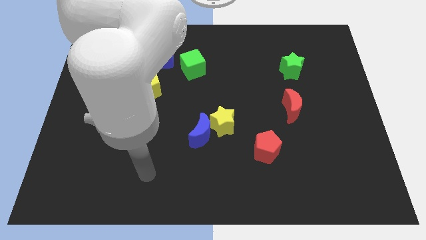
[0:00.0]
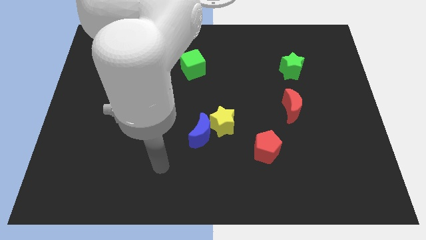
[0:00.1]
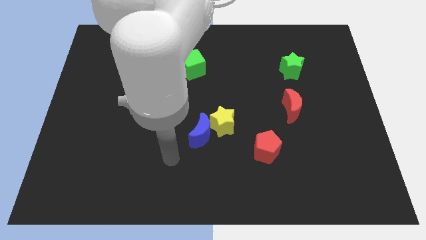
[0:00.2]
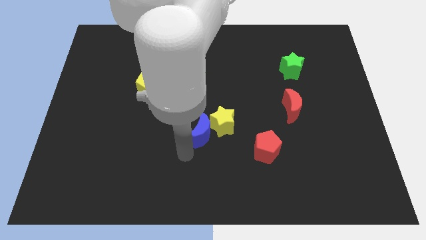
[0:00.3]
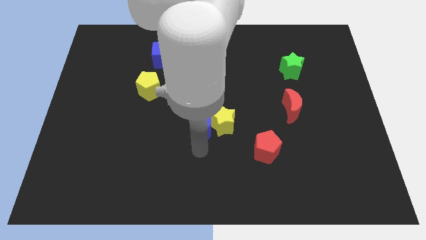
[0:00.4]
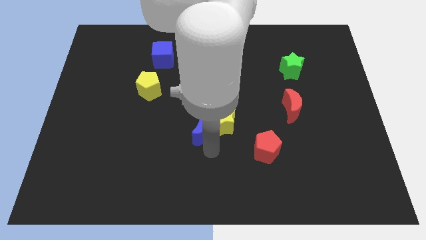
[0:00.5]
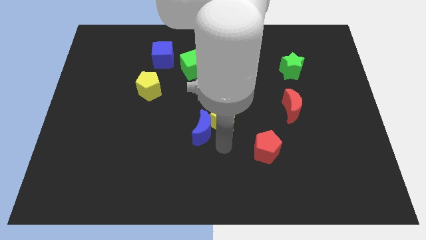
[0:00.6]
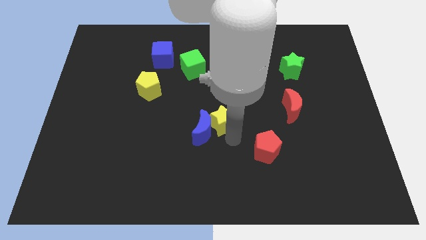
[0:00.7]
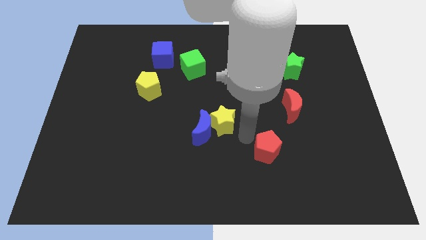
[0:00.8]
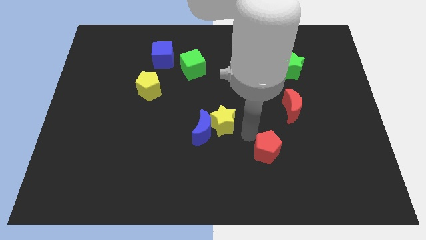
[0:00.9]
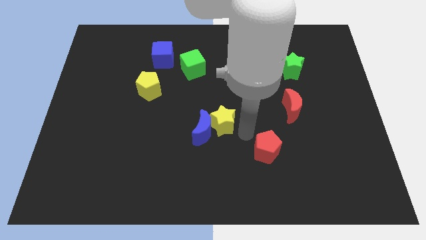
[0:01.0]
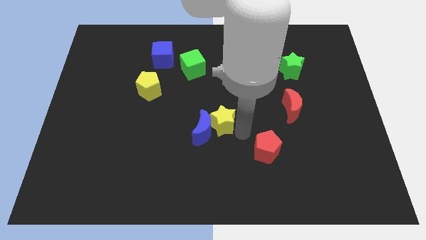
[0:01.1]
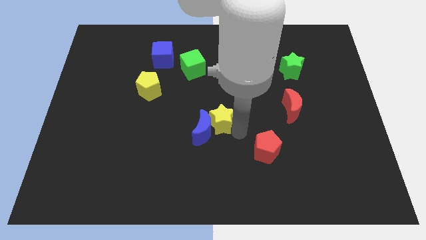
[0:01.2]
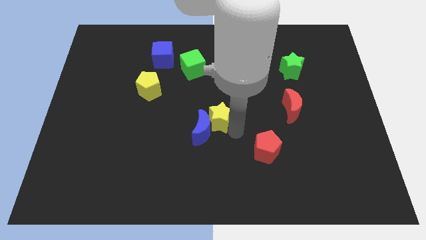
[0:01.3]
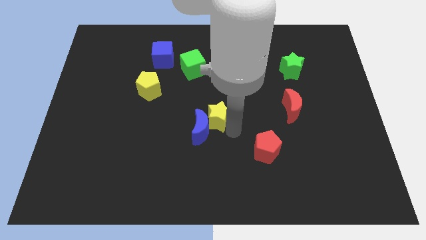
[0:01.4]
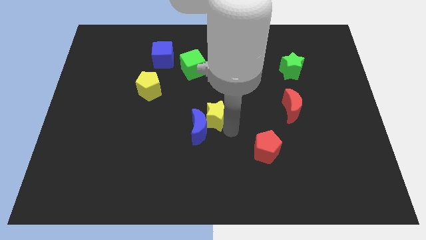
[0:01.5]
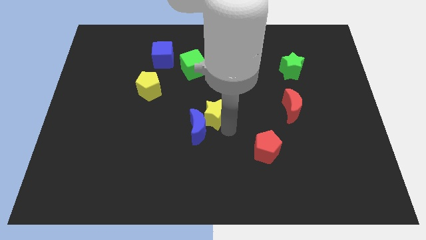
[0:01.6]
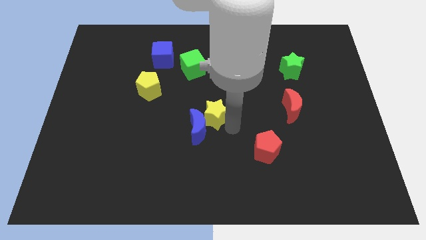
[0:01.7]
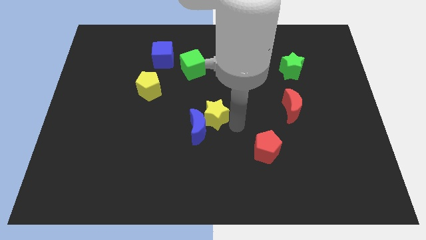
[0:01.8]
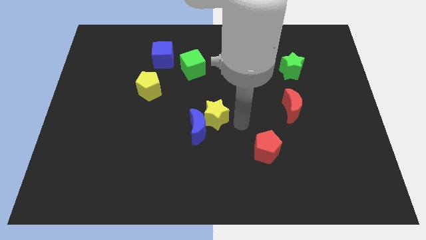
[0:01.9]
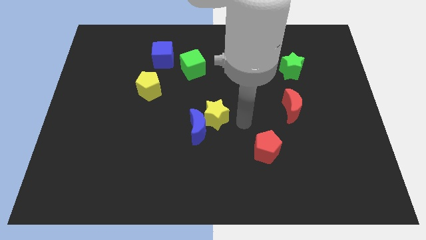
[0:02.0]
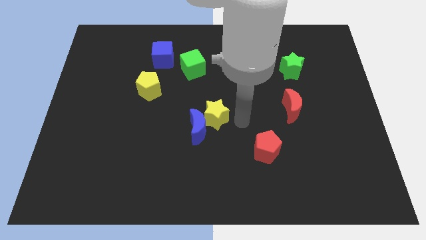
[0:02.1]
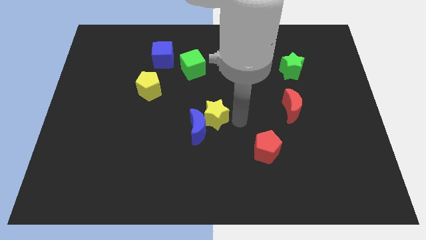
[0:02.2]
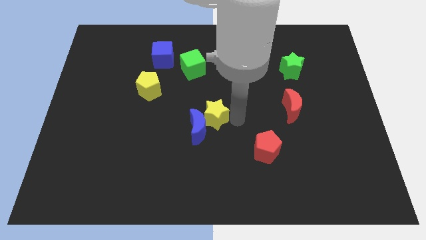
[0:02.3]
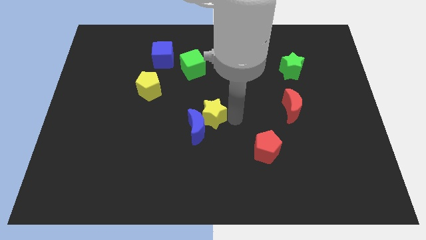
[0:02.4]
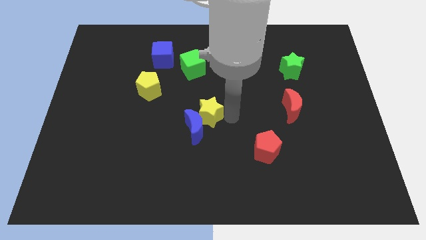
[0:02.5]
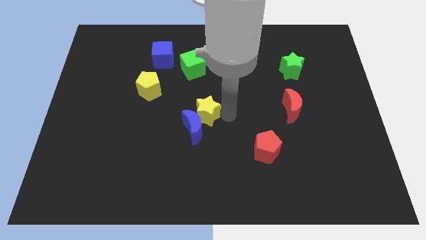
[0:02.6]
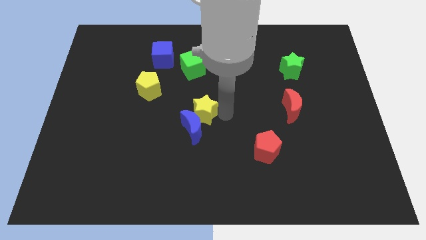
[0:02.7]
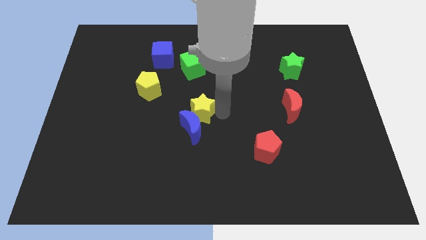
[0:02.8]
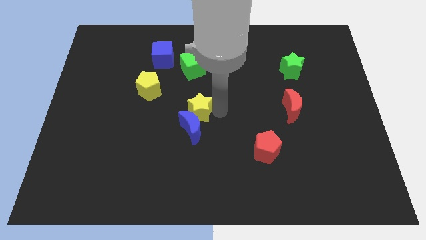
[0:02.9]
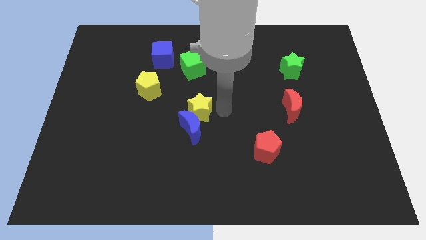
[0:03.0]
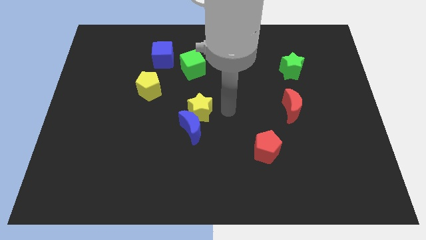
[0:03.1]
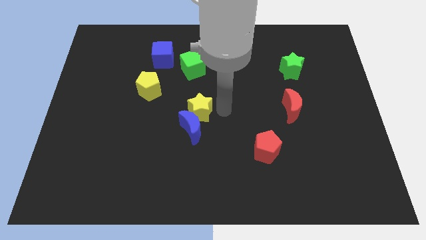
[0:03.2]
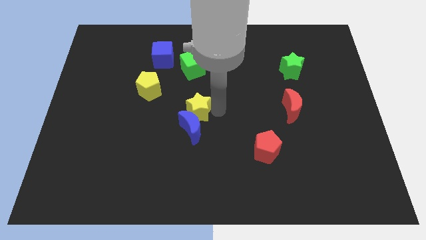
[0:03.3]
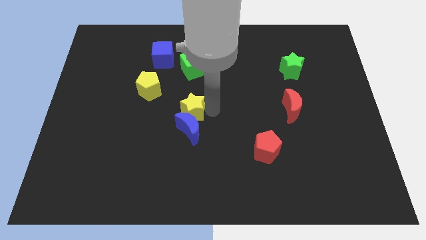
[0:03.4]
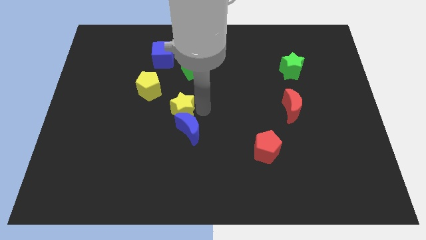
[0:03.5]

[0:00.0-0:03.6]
move the yellow star to the left a bit

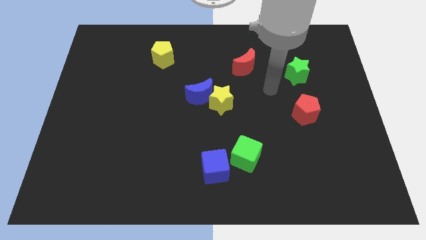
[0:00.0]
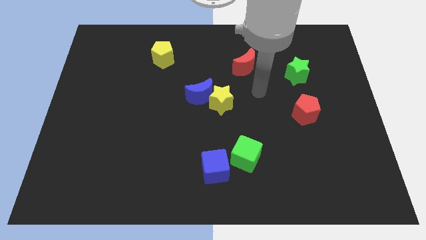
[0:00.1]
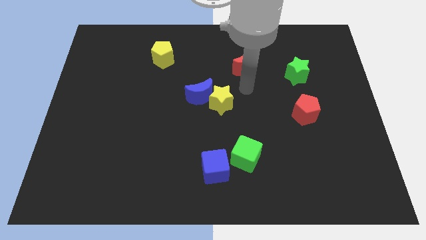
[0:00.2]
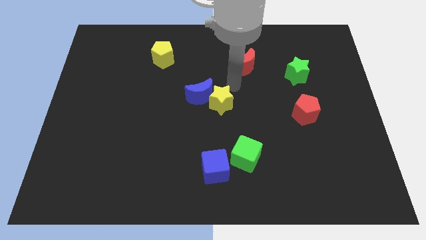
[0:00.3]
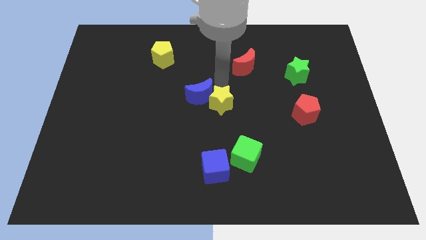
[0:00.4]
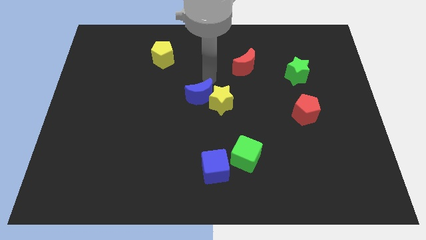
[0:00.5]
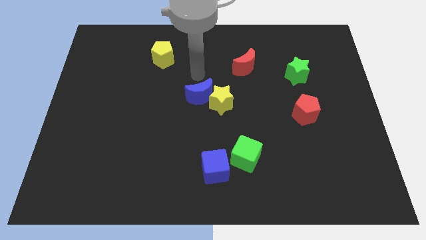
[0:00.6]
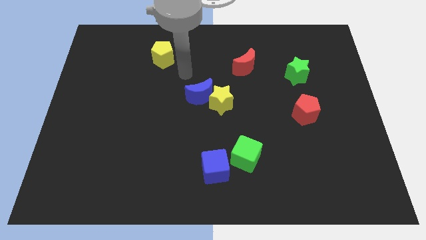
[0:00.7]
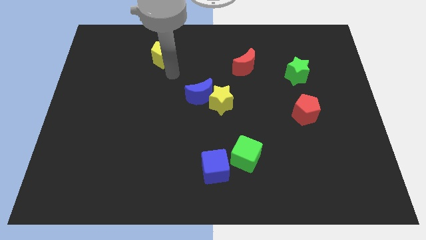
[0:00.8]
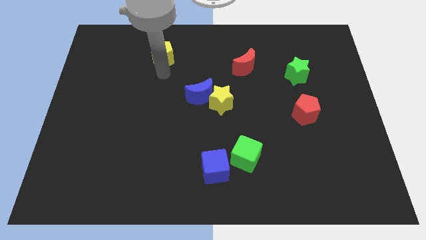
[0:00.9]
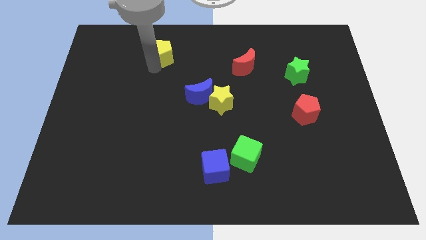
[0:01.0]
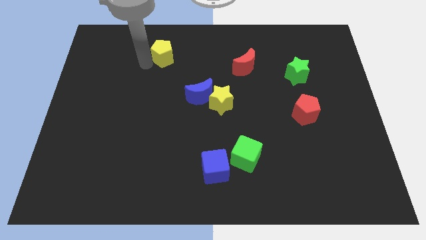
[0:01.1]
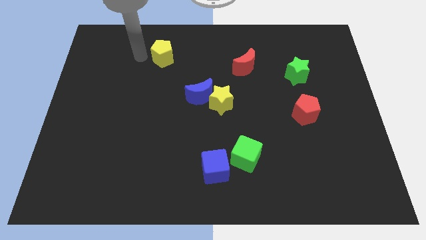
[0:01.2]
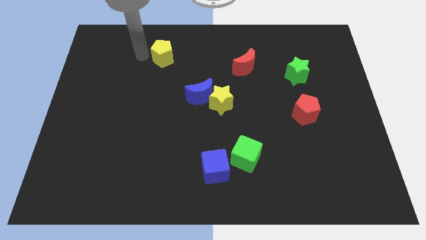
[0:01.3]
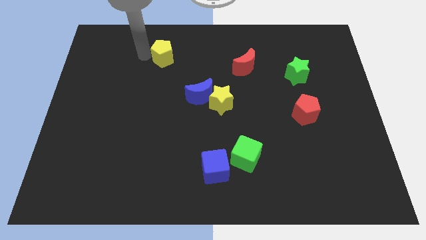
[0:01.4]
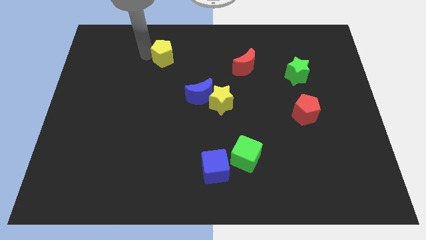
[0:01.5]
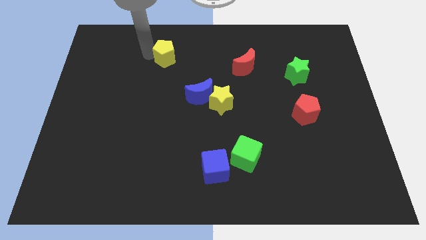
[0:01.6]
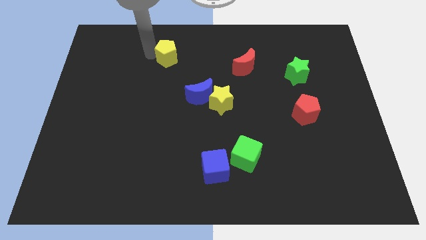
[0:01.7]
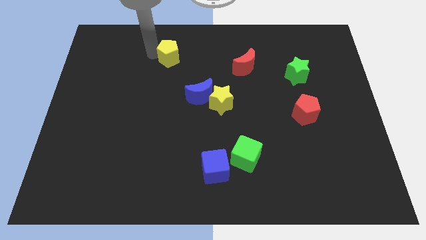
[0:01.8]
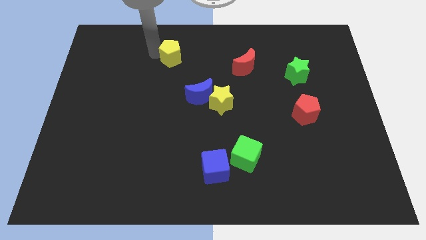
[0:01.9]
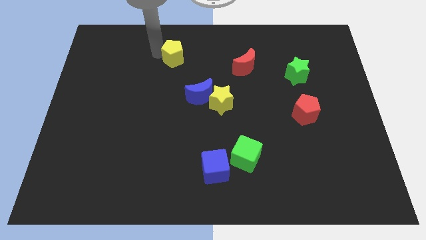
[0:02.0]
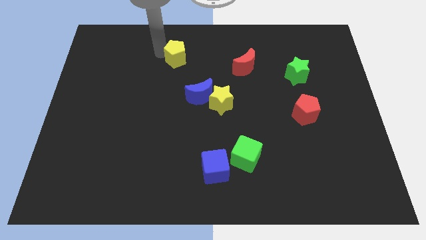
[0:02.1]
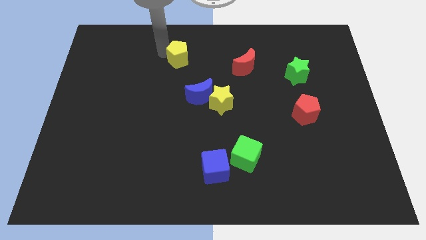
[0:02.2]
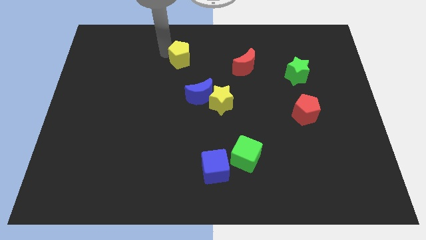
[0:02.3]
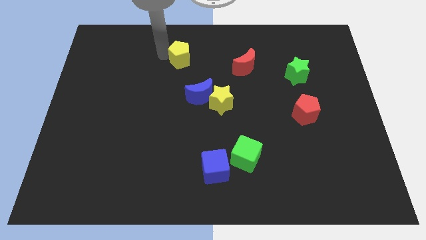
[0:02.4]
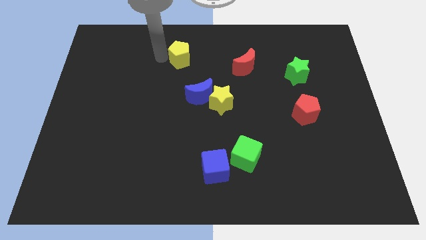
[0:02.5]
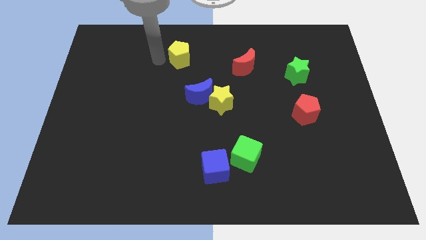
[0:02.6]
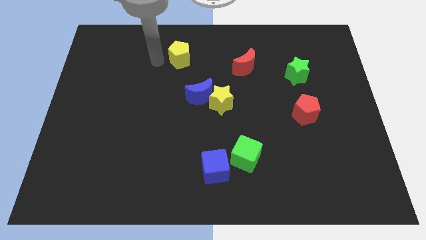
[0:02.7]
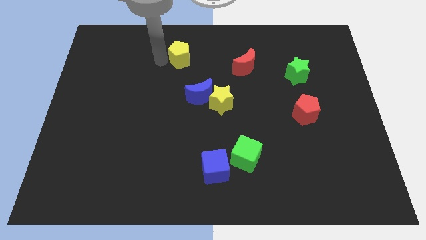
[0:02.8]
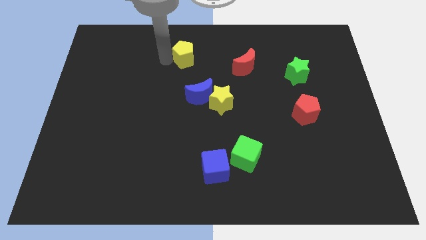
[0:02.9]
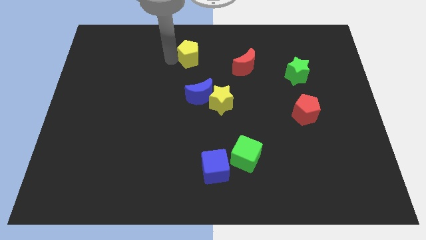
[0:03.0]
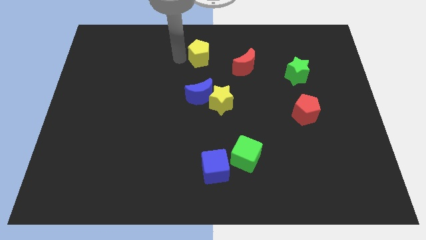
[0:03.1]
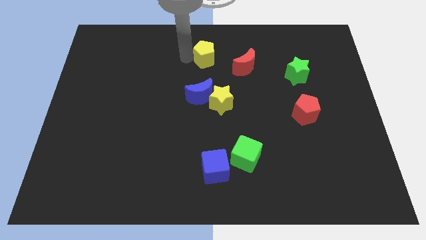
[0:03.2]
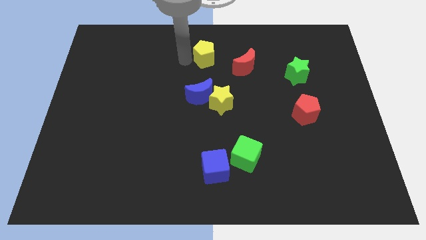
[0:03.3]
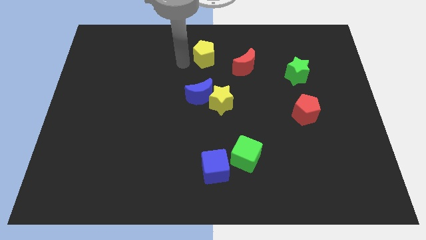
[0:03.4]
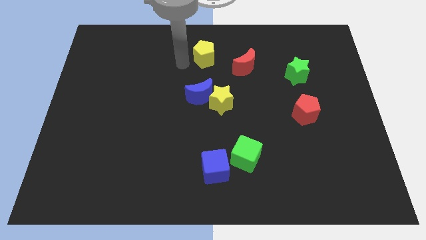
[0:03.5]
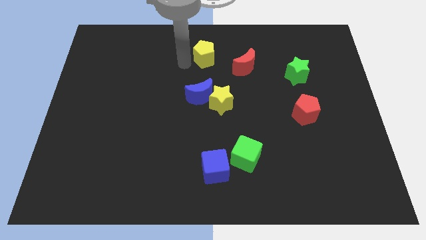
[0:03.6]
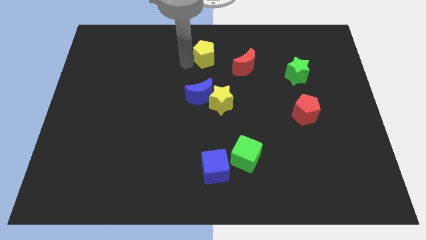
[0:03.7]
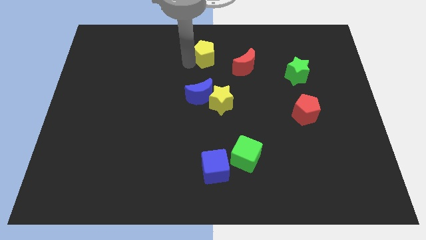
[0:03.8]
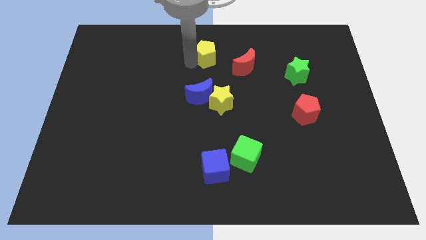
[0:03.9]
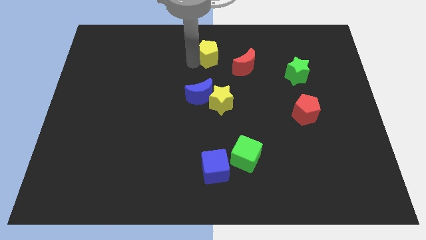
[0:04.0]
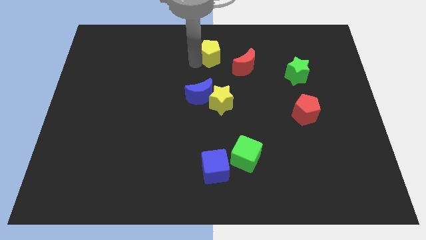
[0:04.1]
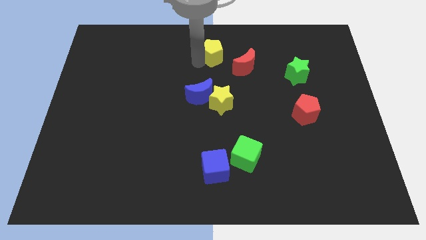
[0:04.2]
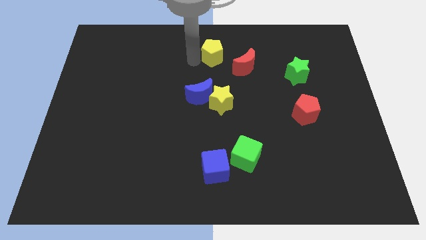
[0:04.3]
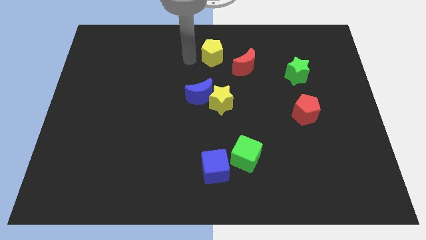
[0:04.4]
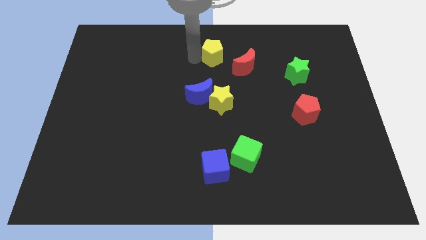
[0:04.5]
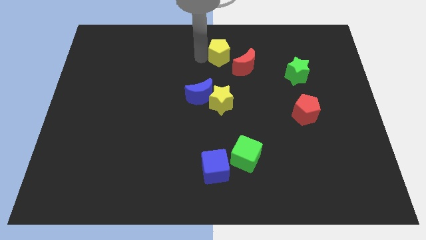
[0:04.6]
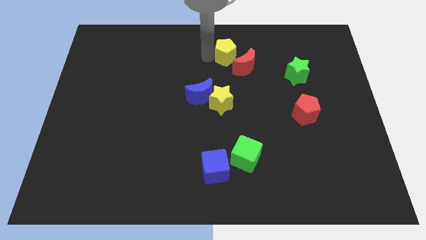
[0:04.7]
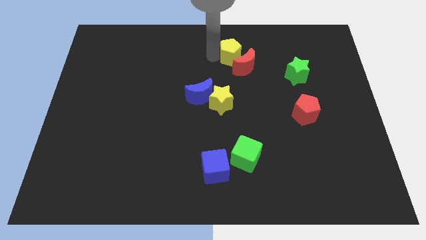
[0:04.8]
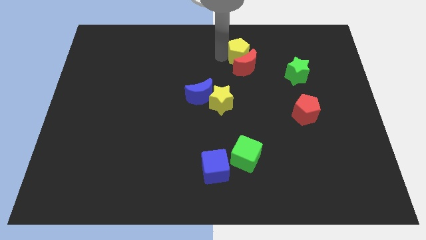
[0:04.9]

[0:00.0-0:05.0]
push the yellow pentagon to the right

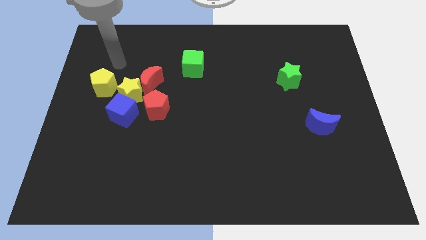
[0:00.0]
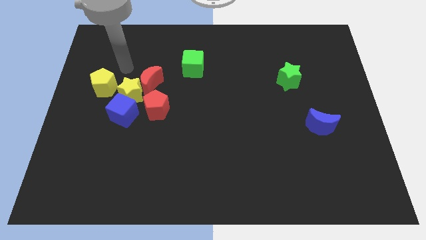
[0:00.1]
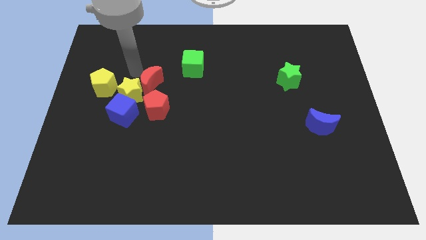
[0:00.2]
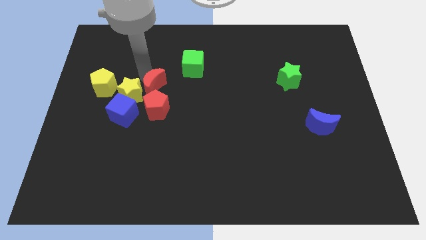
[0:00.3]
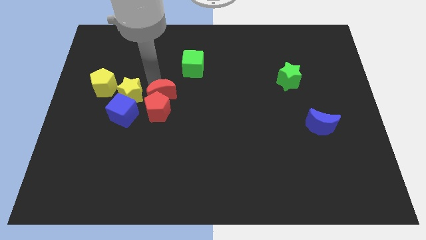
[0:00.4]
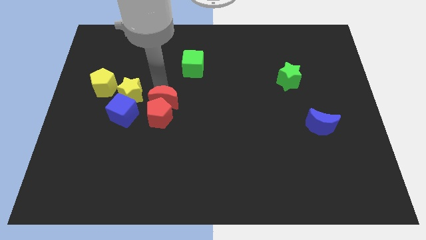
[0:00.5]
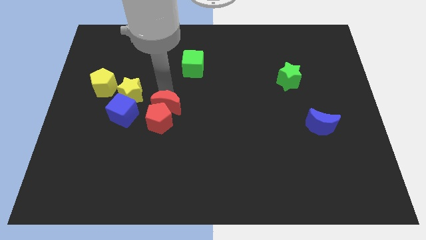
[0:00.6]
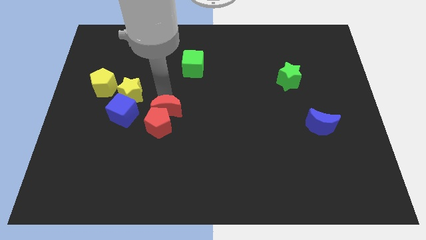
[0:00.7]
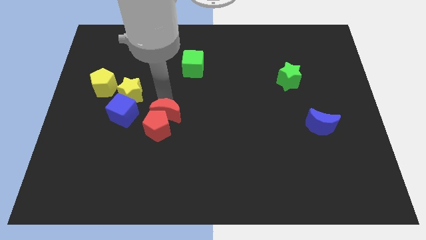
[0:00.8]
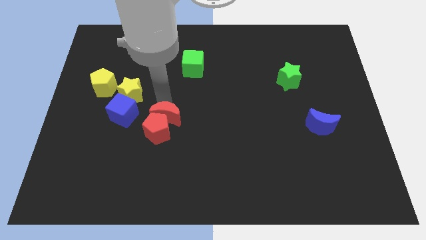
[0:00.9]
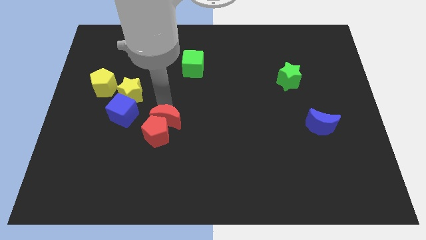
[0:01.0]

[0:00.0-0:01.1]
slide the red pentagon a bit down
